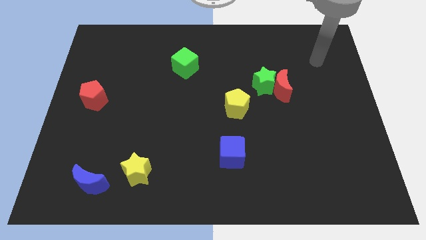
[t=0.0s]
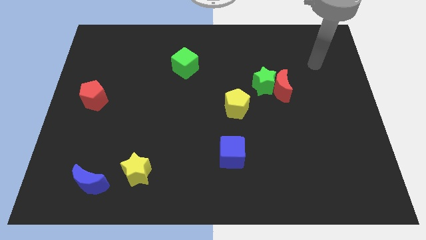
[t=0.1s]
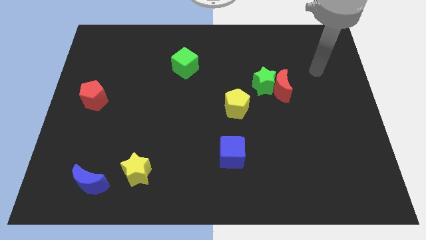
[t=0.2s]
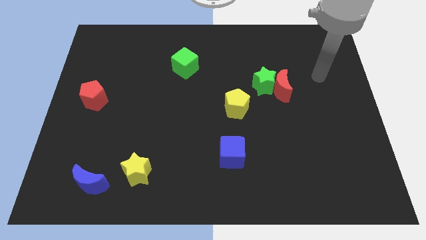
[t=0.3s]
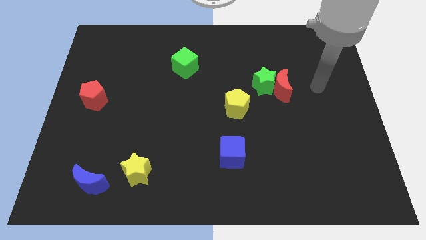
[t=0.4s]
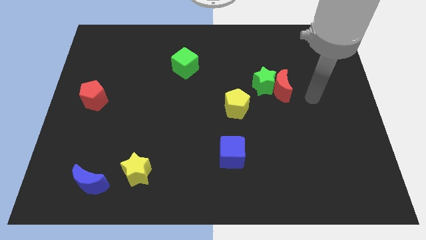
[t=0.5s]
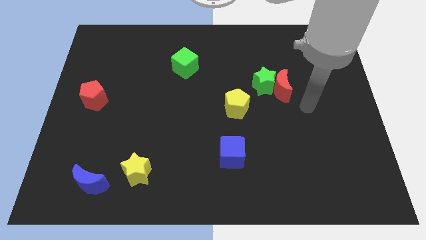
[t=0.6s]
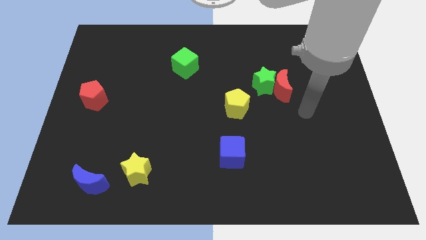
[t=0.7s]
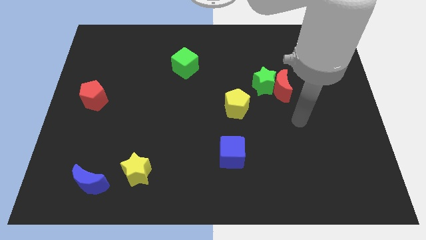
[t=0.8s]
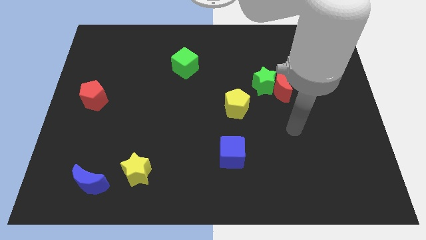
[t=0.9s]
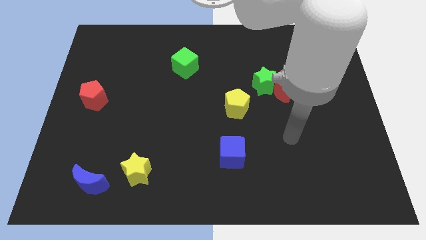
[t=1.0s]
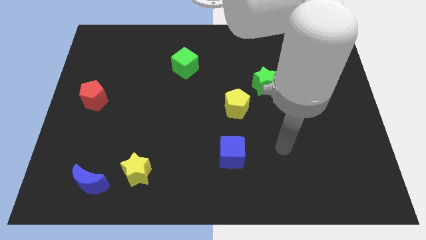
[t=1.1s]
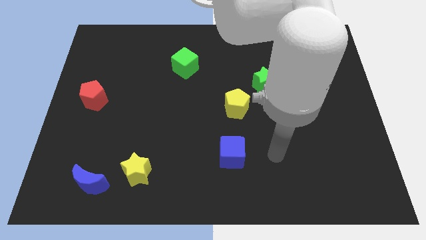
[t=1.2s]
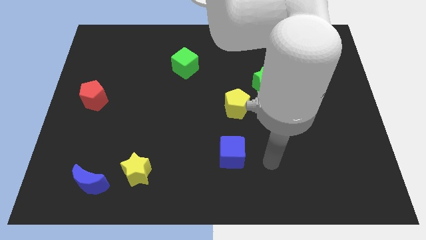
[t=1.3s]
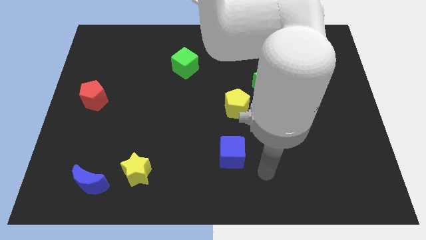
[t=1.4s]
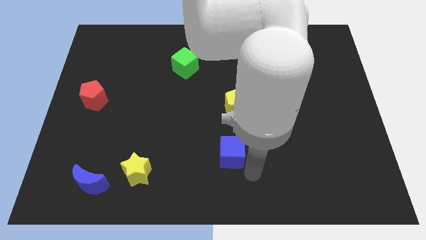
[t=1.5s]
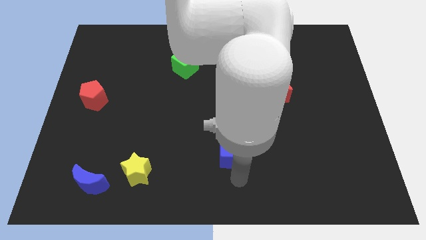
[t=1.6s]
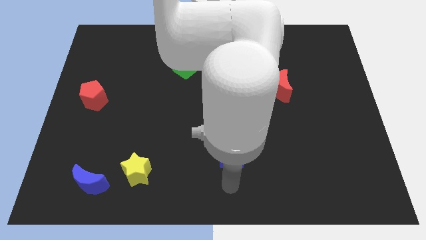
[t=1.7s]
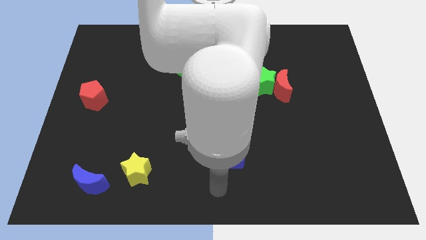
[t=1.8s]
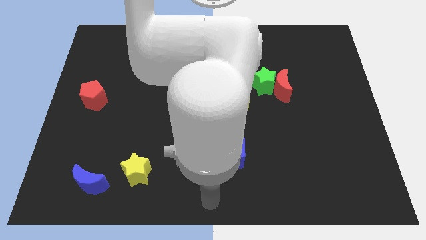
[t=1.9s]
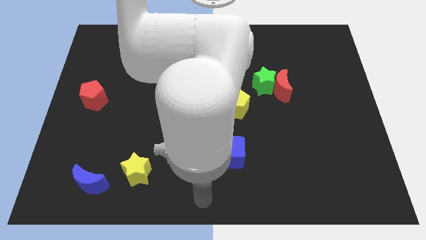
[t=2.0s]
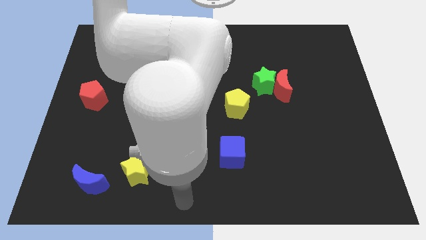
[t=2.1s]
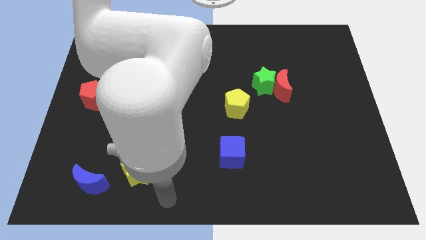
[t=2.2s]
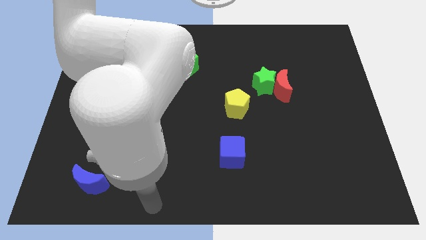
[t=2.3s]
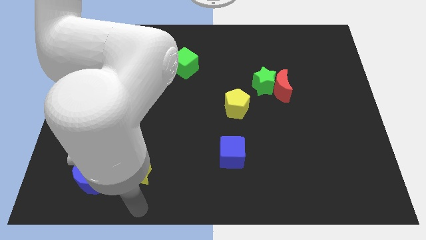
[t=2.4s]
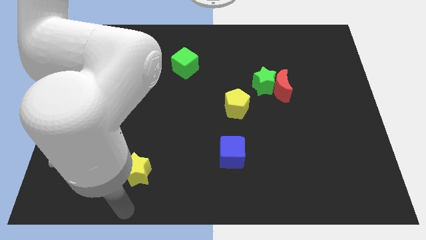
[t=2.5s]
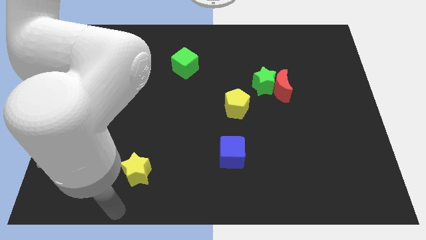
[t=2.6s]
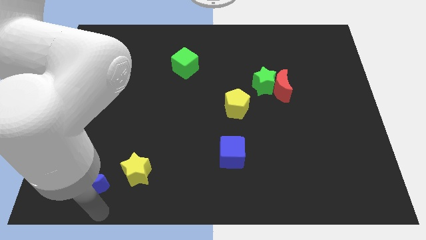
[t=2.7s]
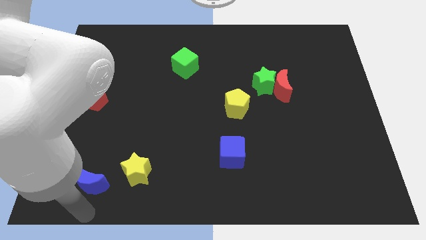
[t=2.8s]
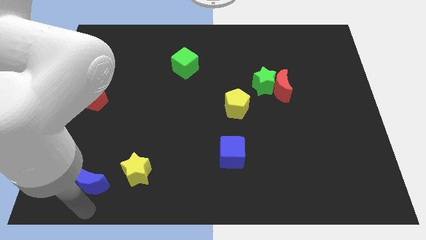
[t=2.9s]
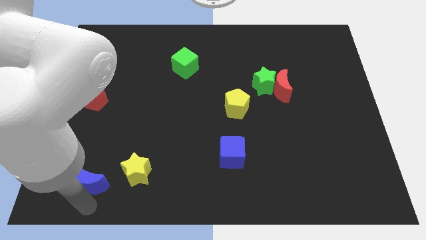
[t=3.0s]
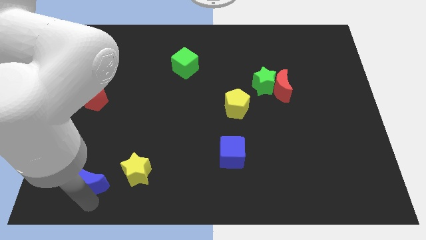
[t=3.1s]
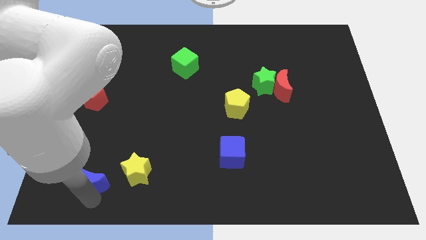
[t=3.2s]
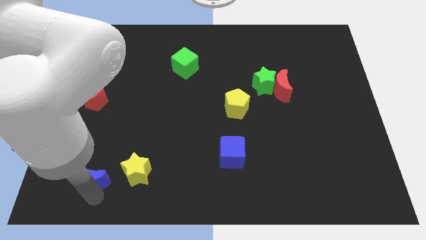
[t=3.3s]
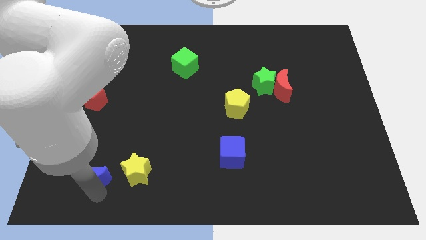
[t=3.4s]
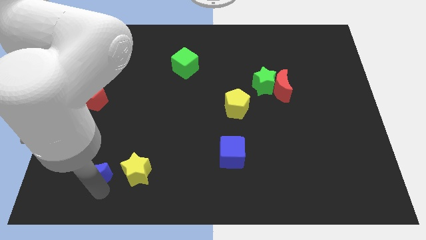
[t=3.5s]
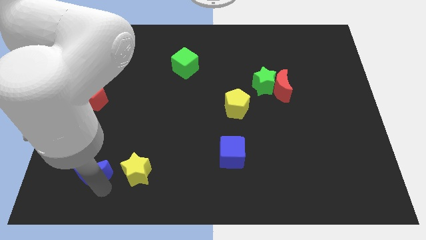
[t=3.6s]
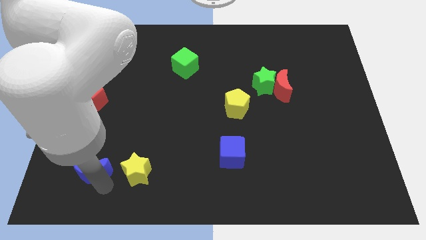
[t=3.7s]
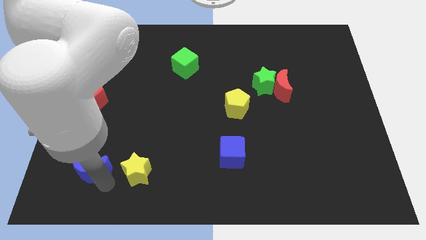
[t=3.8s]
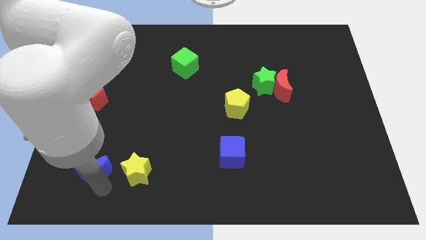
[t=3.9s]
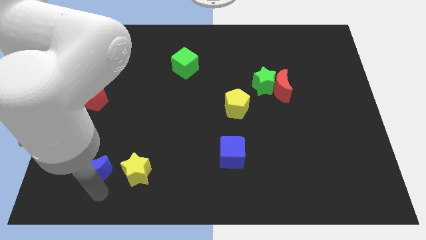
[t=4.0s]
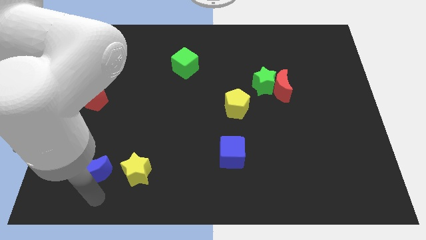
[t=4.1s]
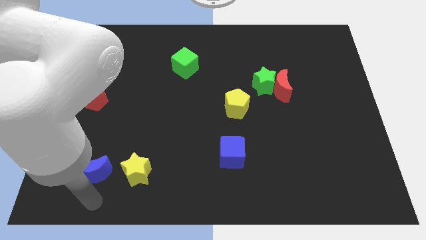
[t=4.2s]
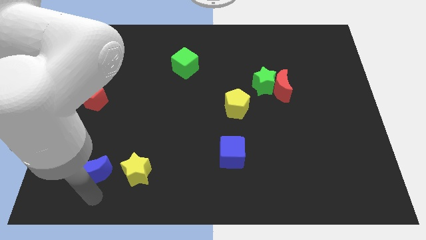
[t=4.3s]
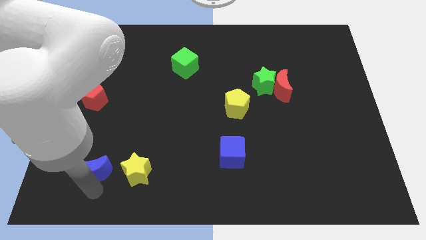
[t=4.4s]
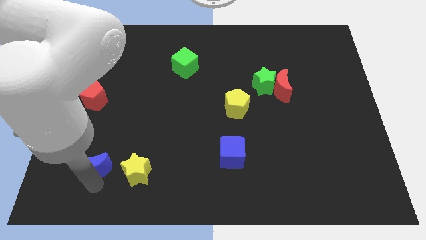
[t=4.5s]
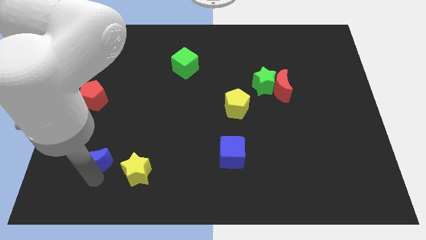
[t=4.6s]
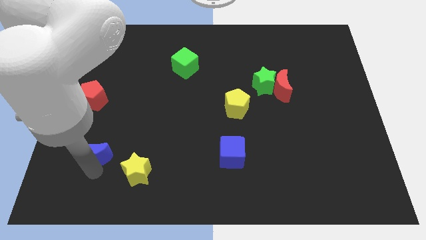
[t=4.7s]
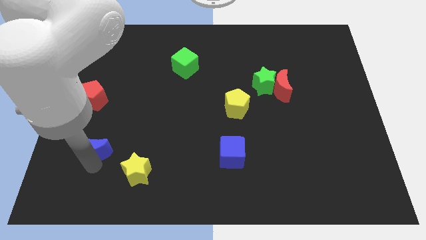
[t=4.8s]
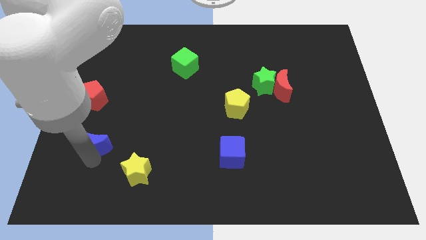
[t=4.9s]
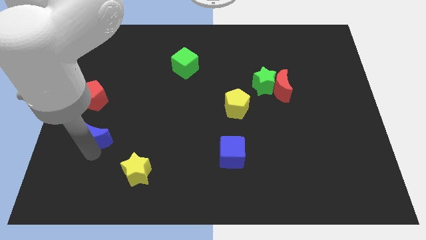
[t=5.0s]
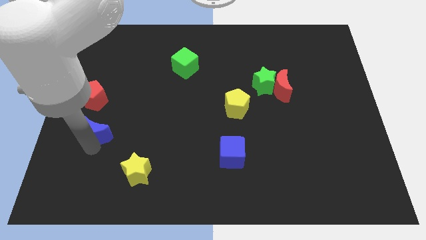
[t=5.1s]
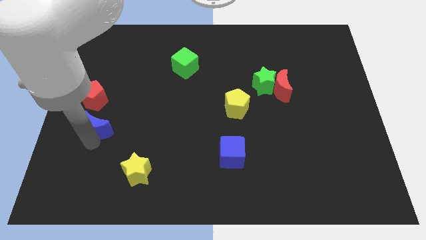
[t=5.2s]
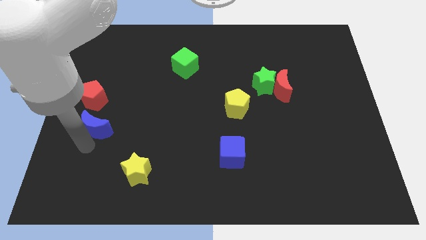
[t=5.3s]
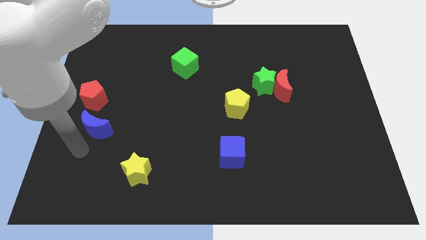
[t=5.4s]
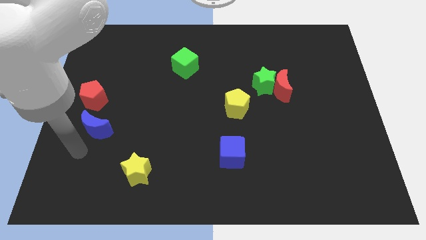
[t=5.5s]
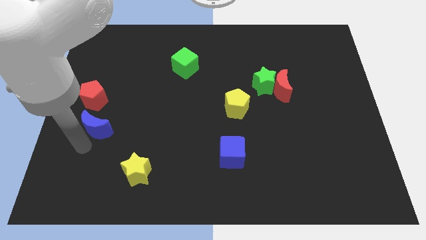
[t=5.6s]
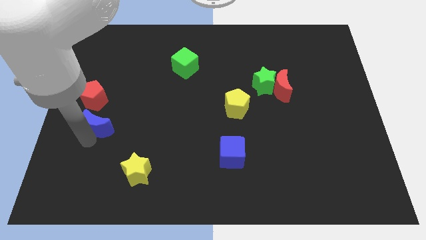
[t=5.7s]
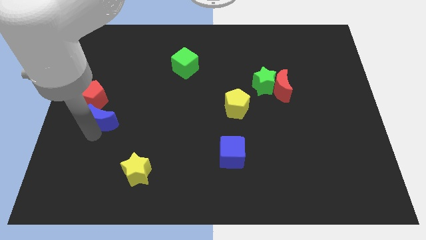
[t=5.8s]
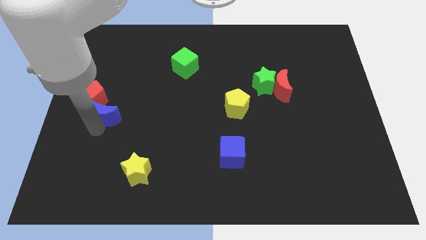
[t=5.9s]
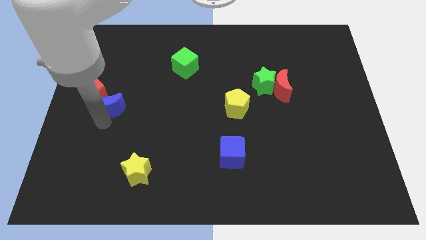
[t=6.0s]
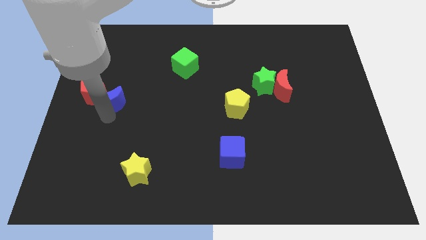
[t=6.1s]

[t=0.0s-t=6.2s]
move the blue moon upwards

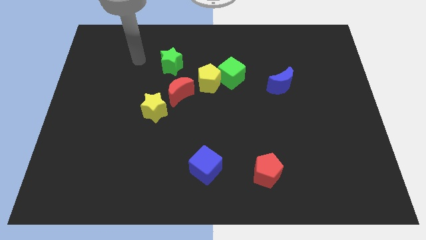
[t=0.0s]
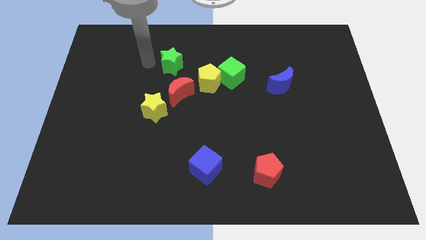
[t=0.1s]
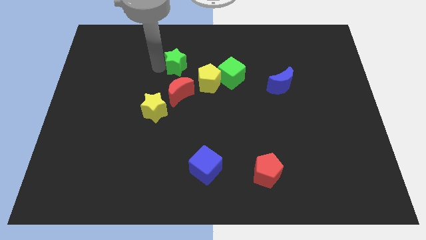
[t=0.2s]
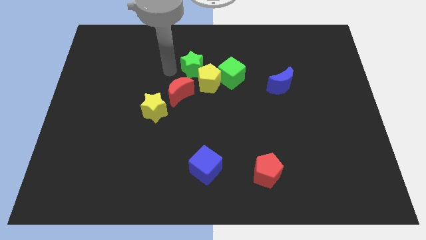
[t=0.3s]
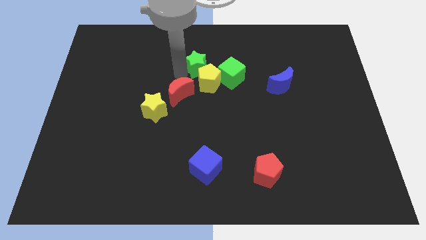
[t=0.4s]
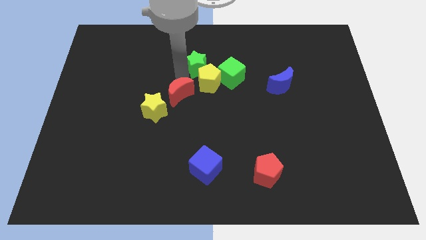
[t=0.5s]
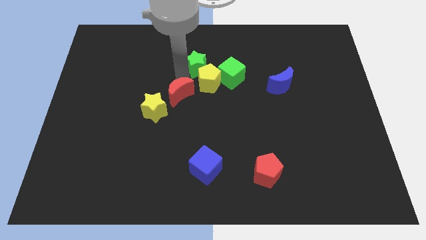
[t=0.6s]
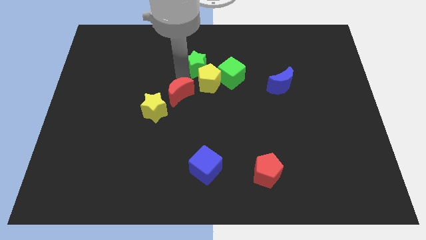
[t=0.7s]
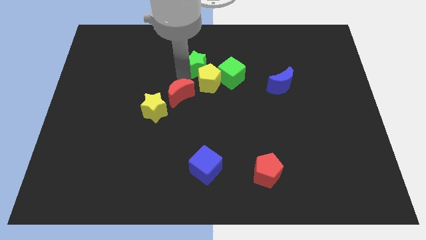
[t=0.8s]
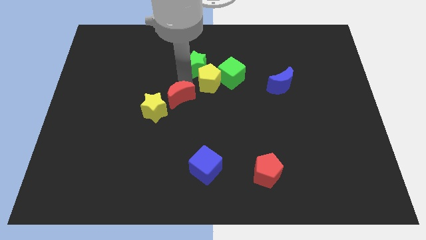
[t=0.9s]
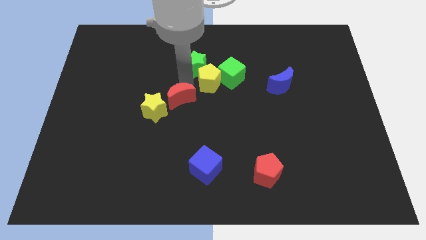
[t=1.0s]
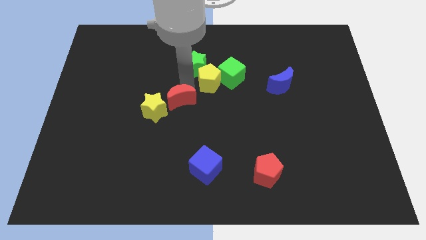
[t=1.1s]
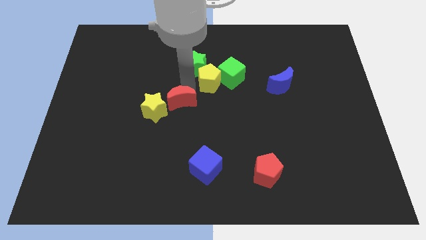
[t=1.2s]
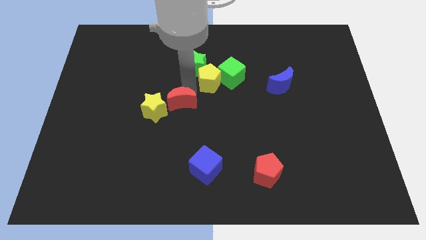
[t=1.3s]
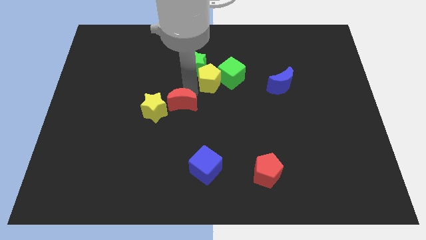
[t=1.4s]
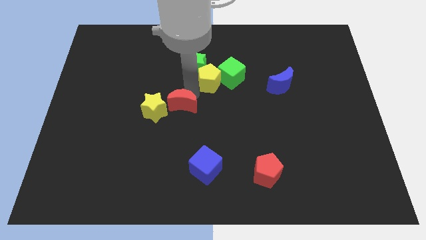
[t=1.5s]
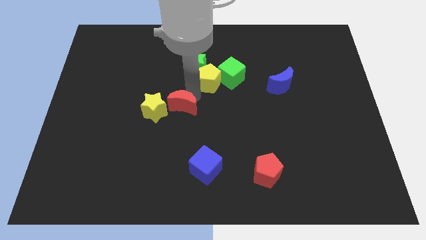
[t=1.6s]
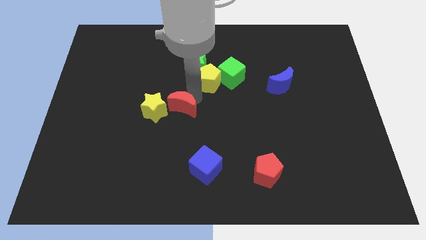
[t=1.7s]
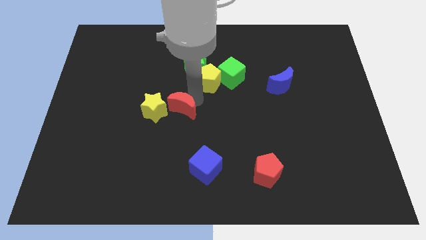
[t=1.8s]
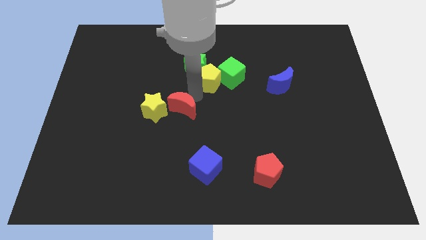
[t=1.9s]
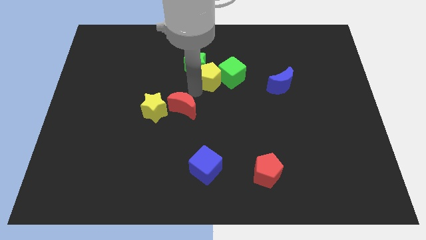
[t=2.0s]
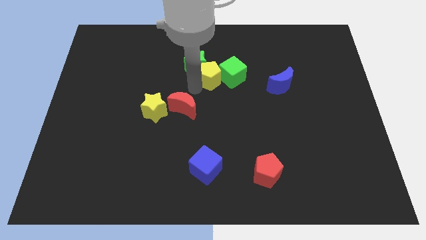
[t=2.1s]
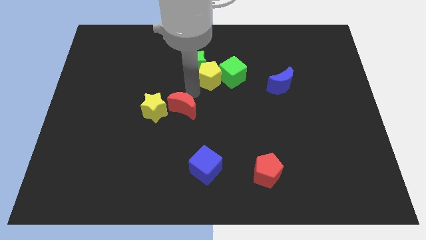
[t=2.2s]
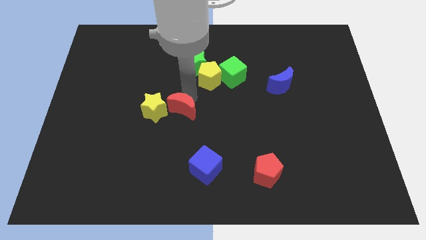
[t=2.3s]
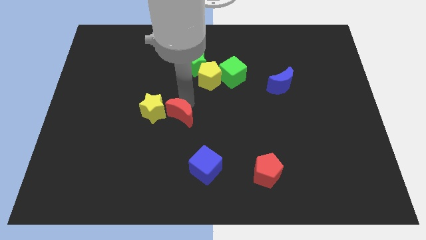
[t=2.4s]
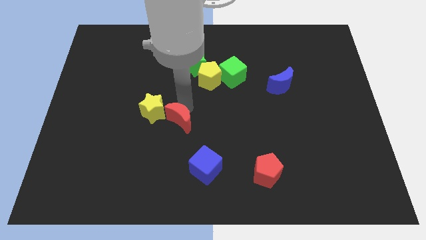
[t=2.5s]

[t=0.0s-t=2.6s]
slightly move the red moon downwards
